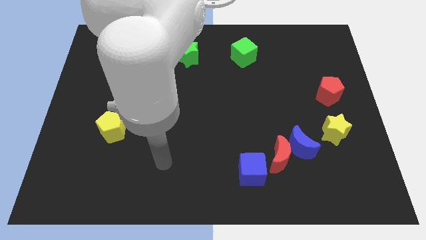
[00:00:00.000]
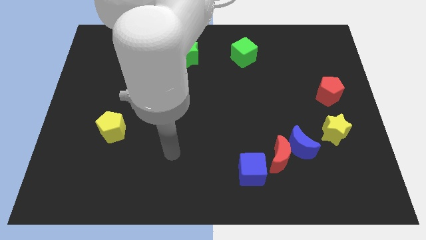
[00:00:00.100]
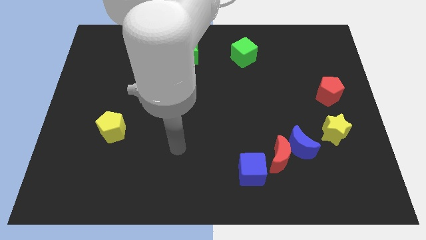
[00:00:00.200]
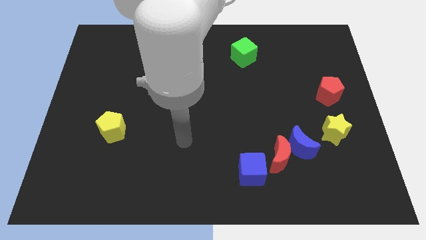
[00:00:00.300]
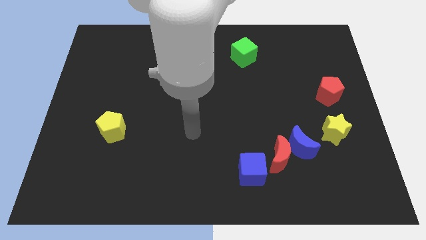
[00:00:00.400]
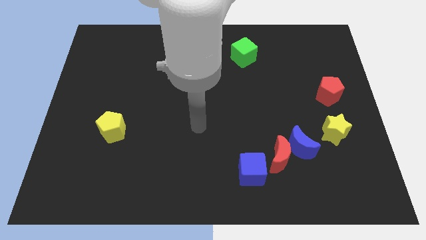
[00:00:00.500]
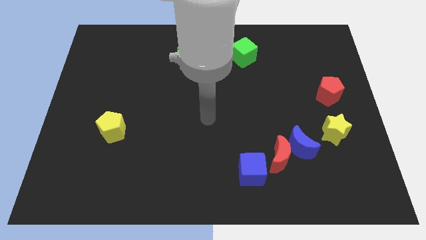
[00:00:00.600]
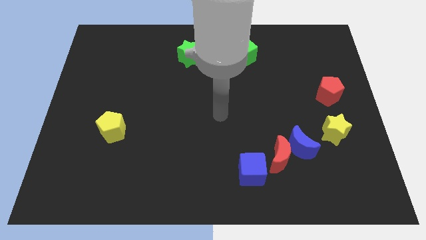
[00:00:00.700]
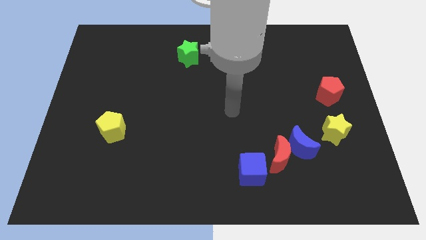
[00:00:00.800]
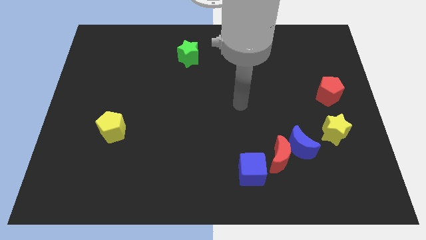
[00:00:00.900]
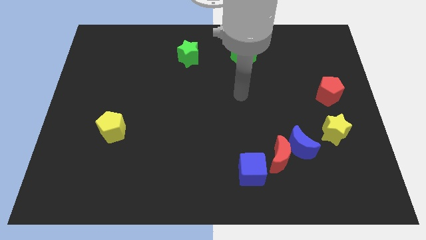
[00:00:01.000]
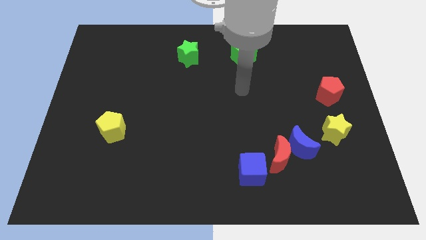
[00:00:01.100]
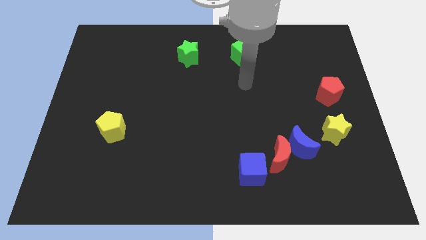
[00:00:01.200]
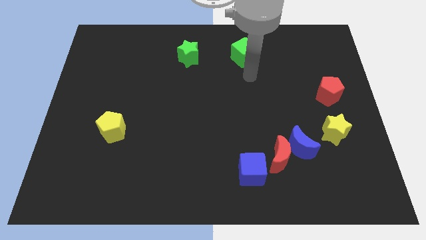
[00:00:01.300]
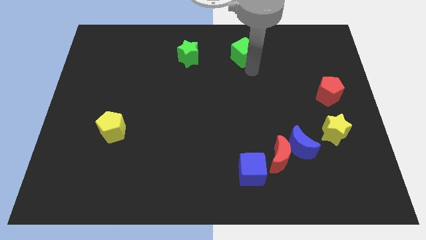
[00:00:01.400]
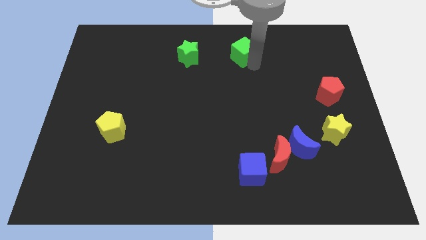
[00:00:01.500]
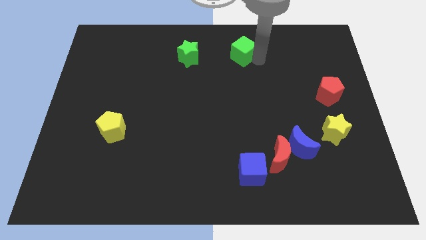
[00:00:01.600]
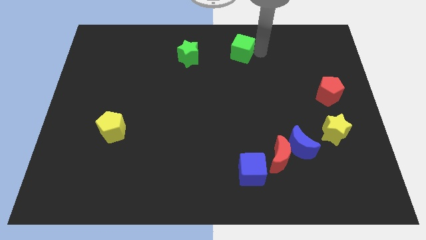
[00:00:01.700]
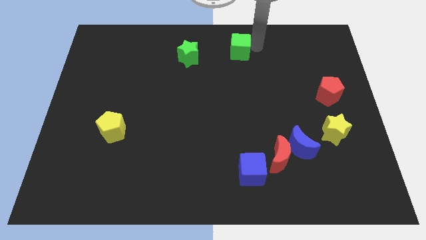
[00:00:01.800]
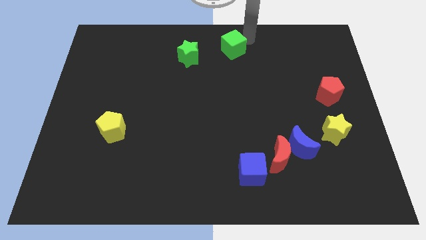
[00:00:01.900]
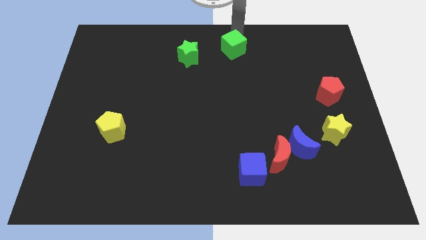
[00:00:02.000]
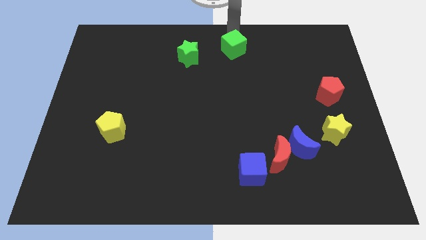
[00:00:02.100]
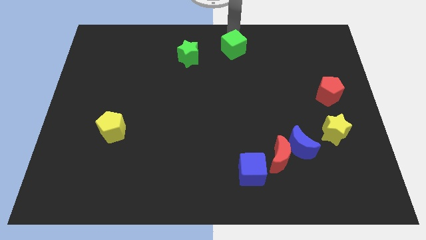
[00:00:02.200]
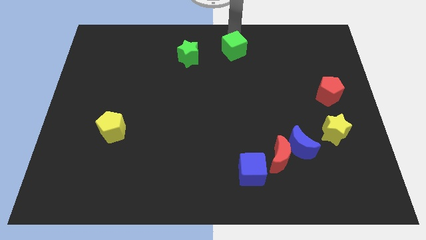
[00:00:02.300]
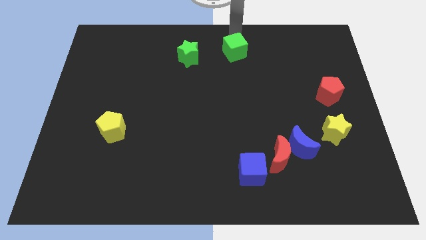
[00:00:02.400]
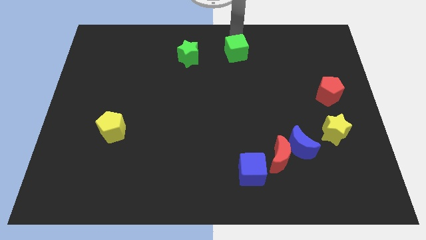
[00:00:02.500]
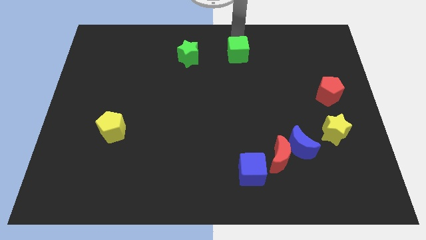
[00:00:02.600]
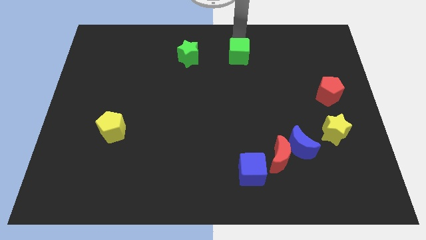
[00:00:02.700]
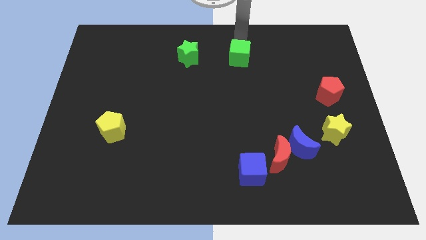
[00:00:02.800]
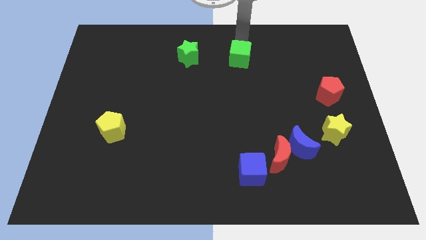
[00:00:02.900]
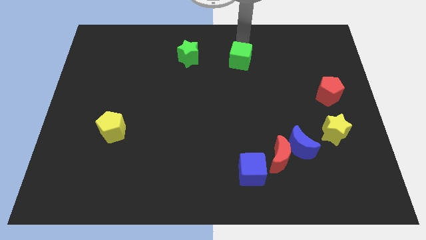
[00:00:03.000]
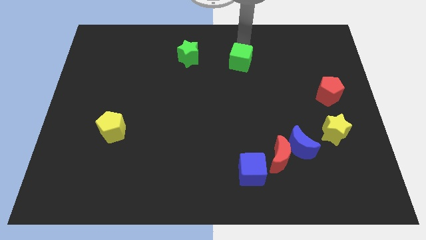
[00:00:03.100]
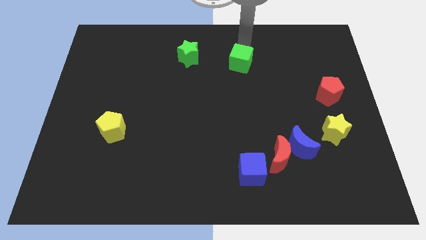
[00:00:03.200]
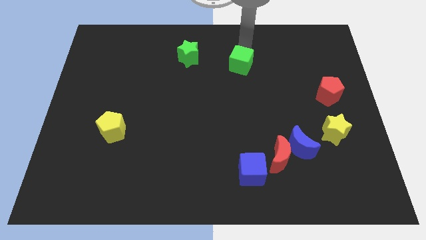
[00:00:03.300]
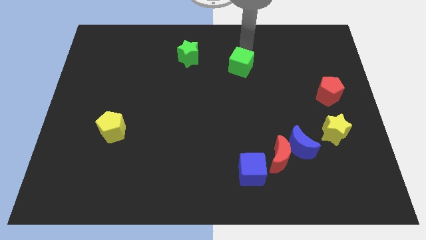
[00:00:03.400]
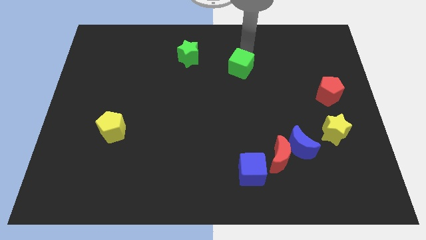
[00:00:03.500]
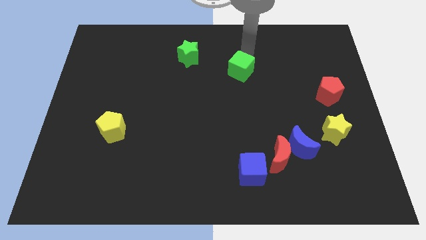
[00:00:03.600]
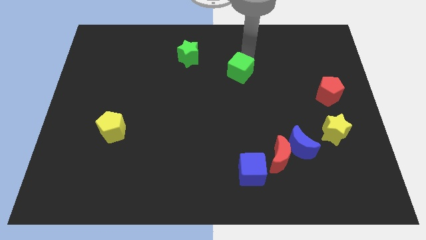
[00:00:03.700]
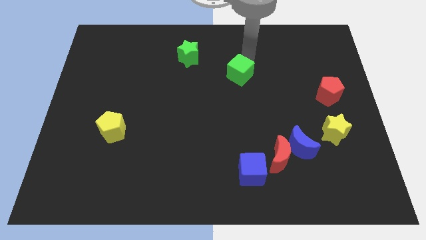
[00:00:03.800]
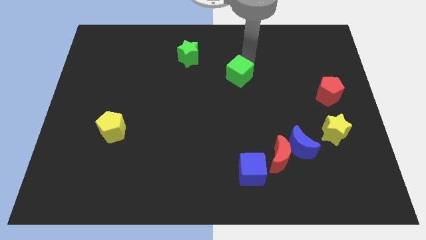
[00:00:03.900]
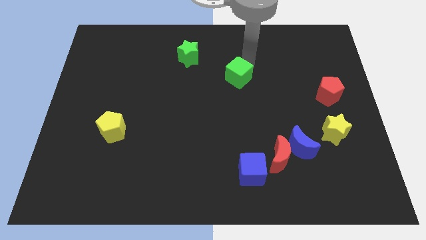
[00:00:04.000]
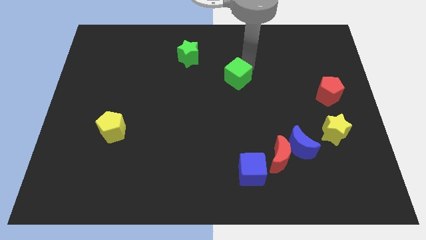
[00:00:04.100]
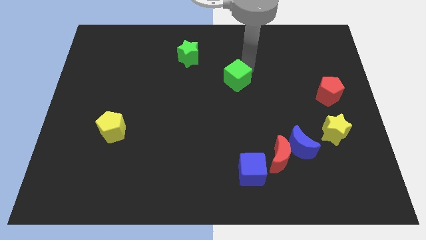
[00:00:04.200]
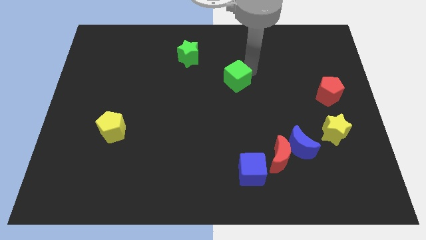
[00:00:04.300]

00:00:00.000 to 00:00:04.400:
slide the green cube down and left a bit

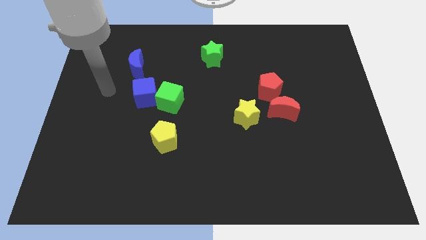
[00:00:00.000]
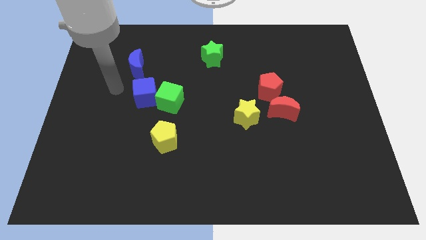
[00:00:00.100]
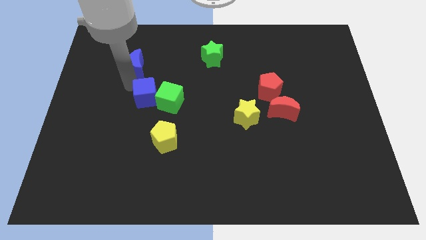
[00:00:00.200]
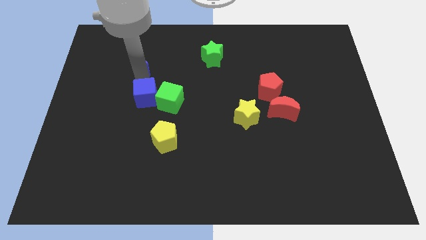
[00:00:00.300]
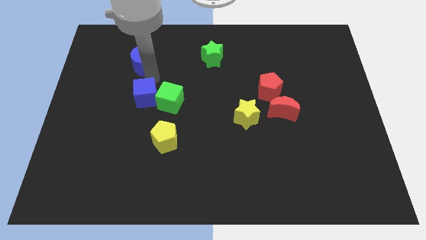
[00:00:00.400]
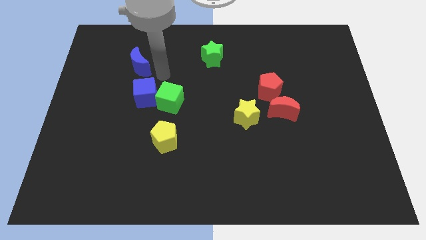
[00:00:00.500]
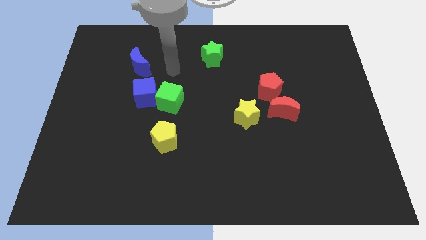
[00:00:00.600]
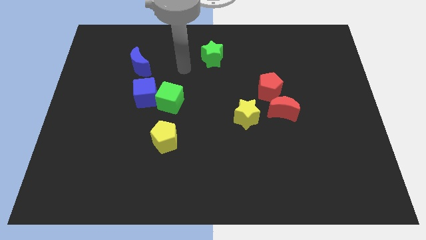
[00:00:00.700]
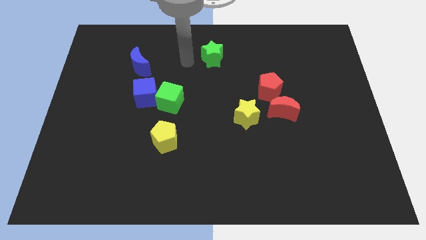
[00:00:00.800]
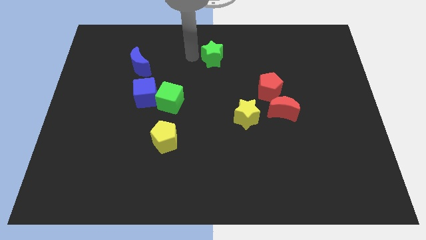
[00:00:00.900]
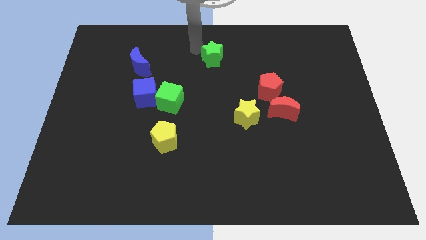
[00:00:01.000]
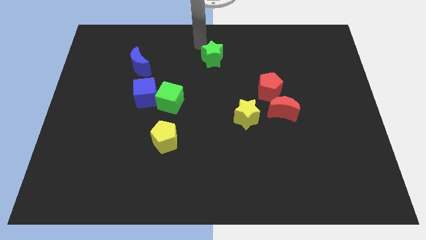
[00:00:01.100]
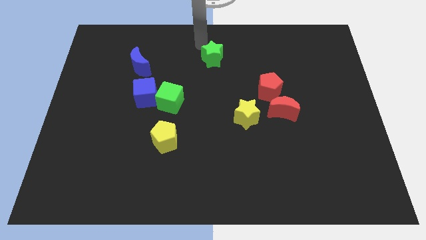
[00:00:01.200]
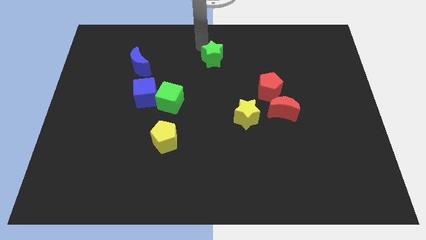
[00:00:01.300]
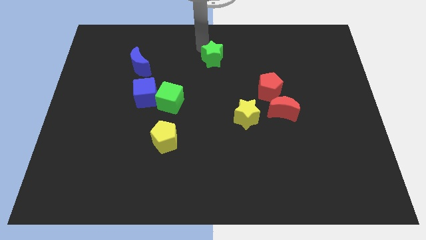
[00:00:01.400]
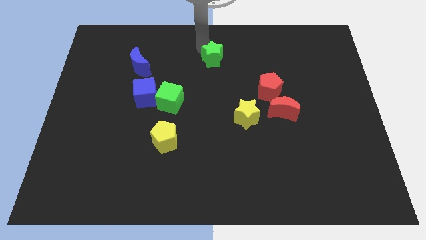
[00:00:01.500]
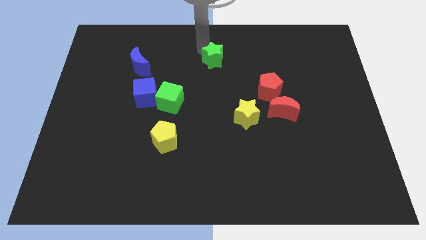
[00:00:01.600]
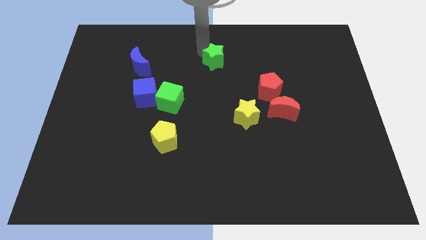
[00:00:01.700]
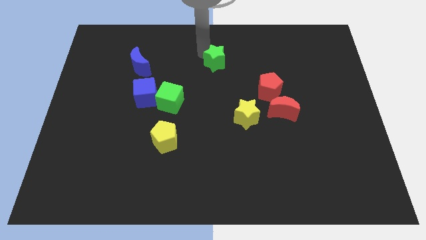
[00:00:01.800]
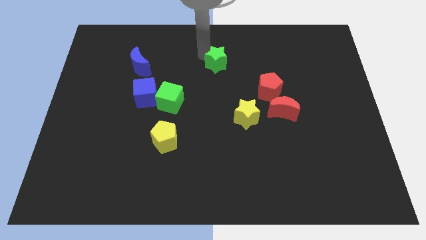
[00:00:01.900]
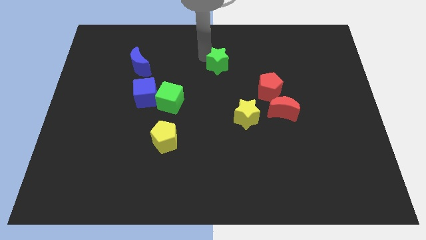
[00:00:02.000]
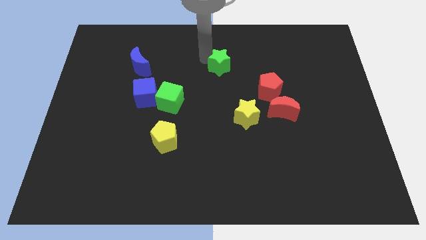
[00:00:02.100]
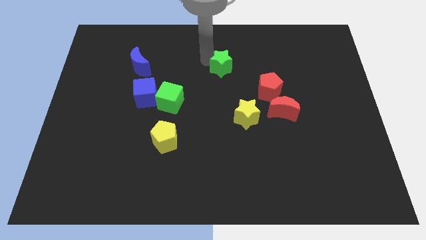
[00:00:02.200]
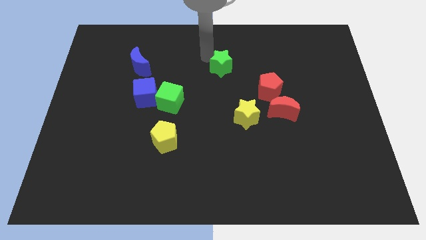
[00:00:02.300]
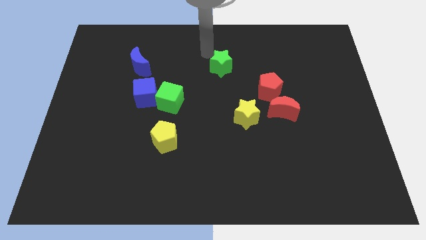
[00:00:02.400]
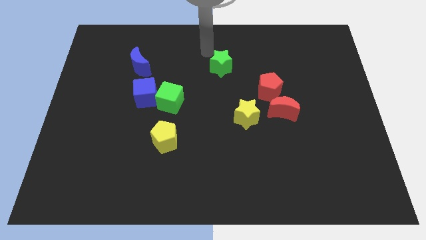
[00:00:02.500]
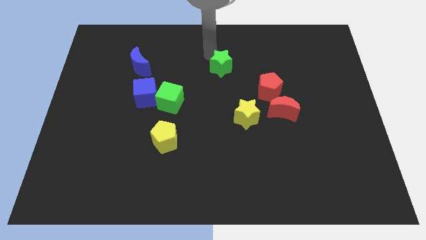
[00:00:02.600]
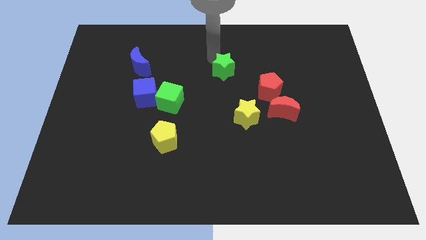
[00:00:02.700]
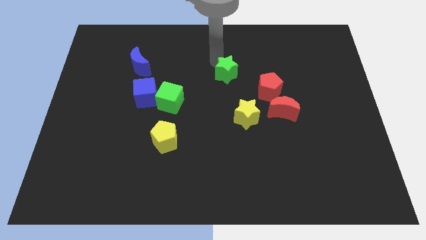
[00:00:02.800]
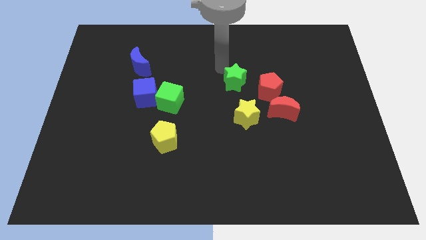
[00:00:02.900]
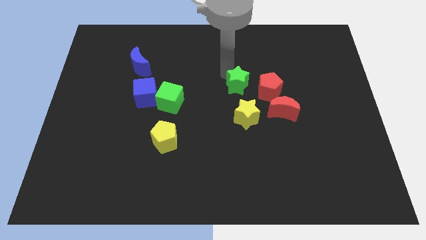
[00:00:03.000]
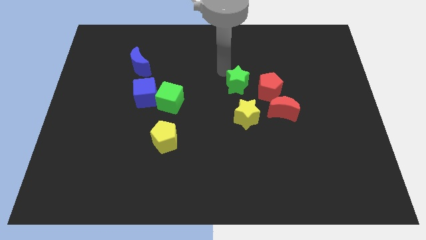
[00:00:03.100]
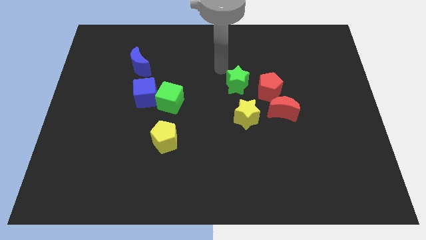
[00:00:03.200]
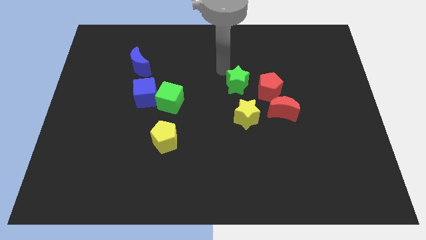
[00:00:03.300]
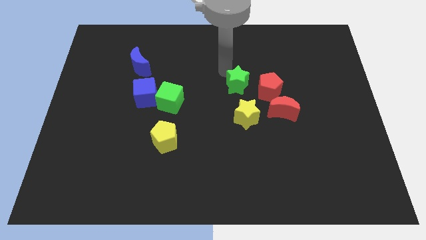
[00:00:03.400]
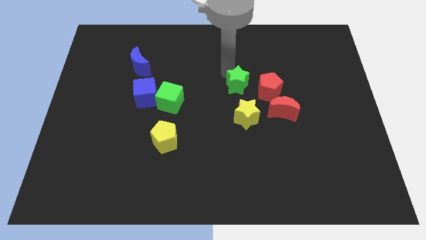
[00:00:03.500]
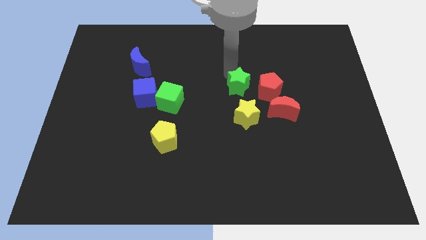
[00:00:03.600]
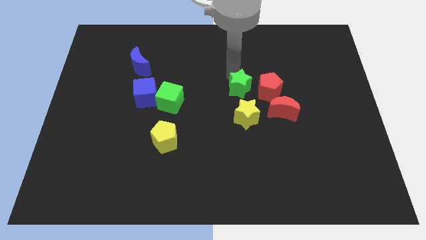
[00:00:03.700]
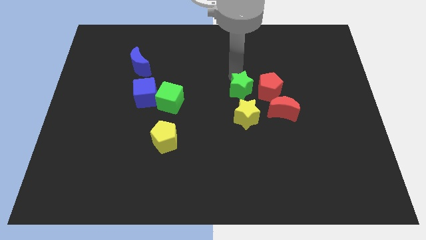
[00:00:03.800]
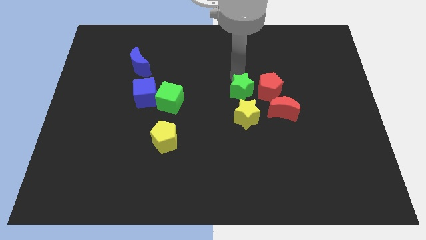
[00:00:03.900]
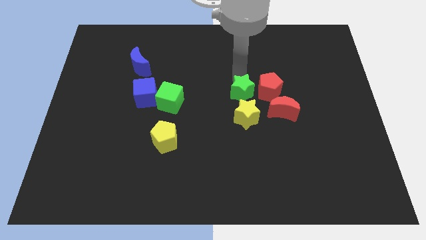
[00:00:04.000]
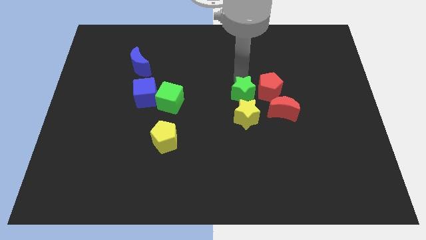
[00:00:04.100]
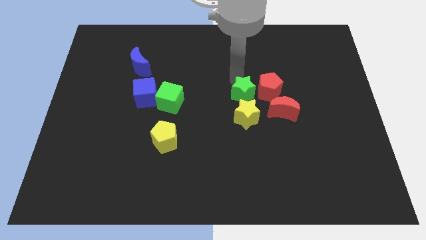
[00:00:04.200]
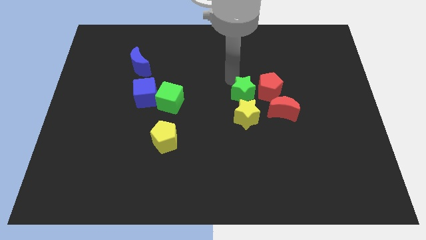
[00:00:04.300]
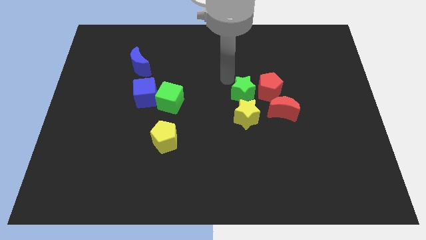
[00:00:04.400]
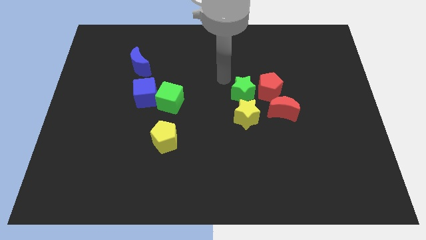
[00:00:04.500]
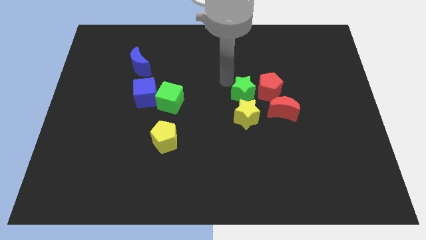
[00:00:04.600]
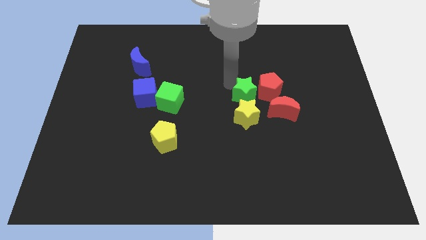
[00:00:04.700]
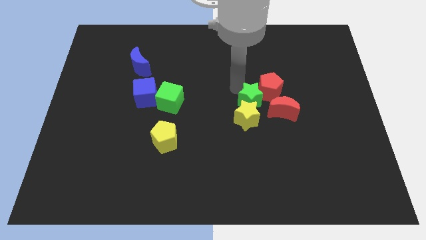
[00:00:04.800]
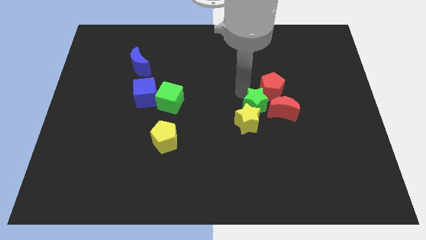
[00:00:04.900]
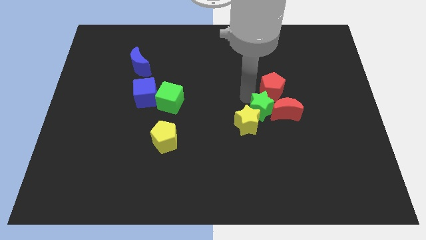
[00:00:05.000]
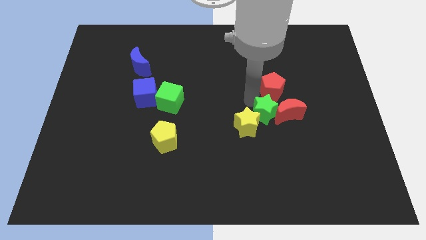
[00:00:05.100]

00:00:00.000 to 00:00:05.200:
move the green star downwards and then to the right
